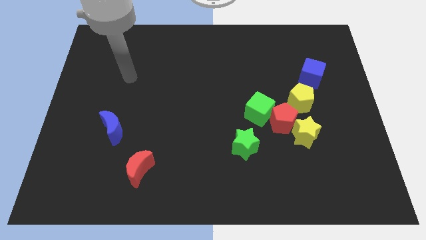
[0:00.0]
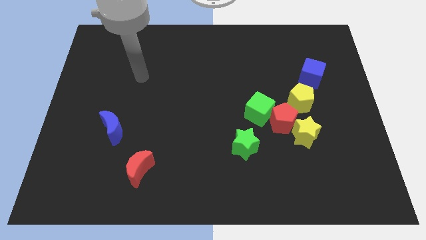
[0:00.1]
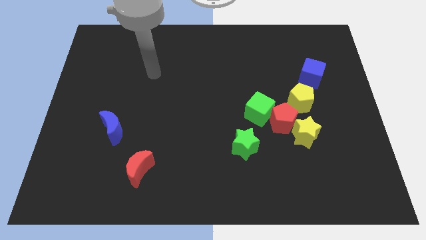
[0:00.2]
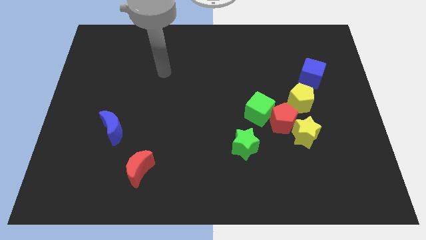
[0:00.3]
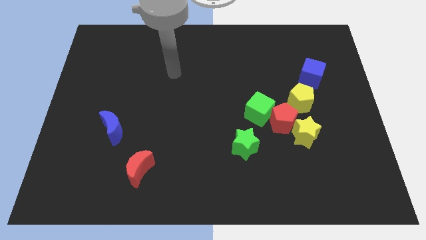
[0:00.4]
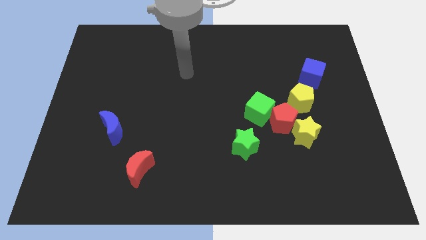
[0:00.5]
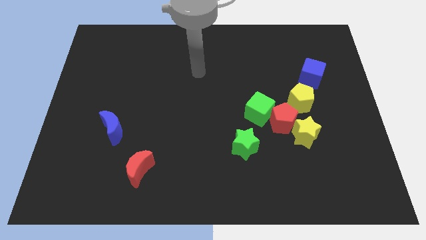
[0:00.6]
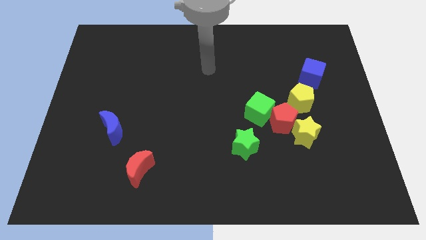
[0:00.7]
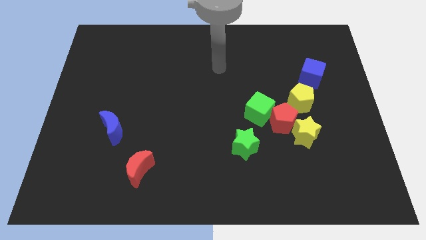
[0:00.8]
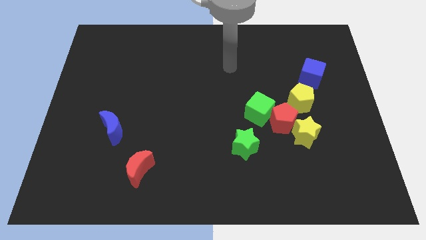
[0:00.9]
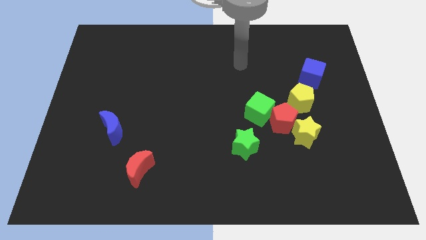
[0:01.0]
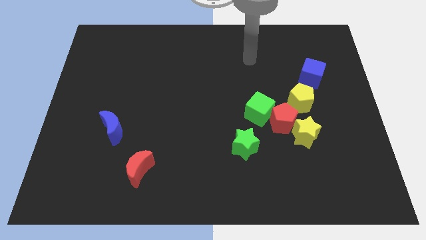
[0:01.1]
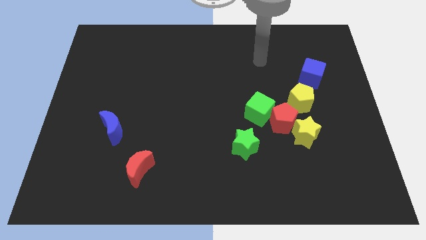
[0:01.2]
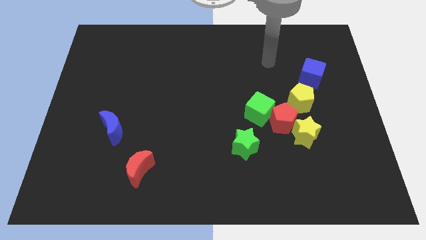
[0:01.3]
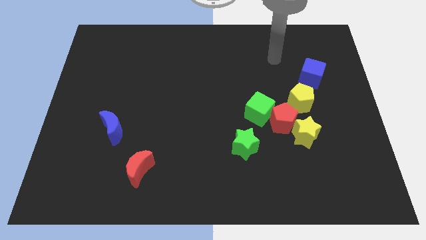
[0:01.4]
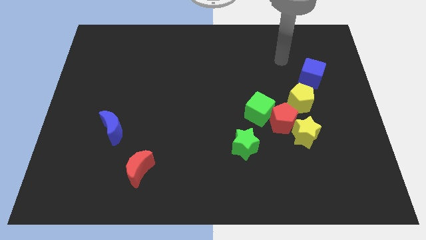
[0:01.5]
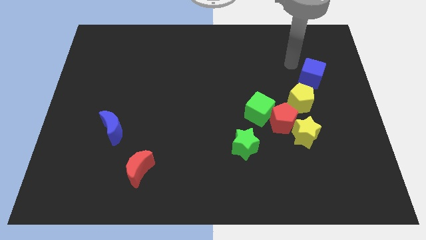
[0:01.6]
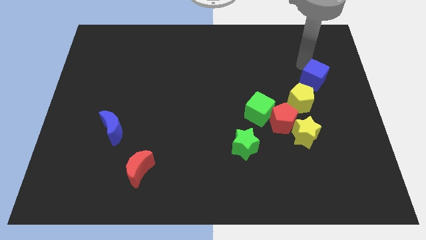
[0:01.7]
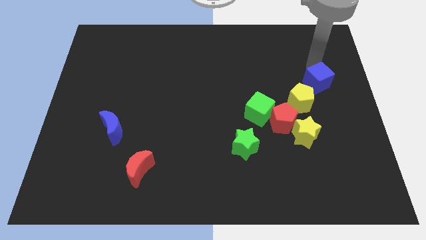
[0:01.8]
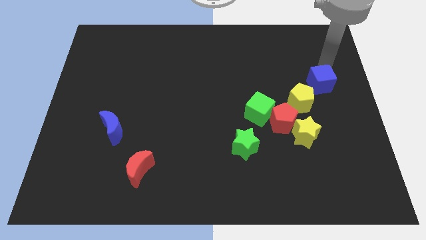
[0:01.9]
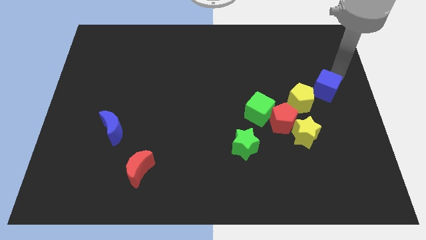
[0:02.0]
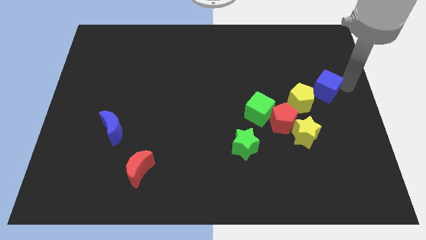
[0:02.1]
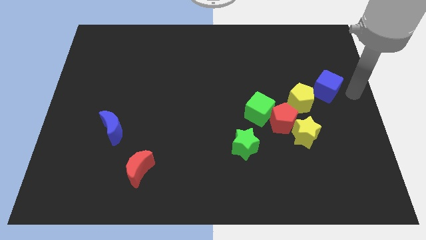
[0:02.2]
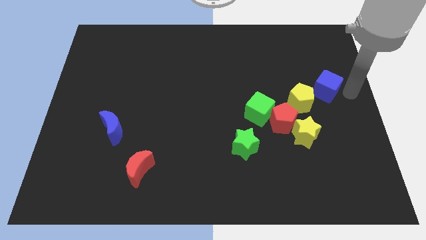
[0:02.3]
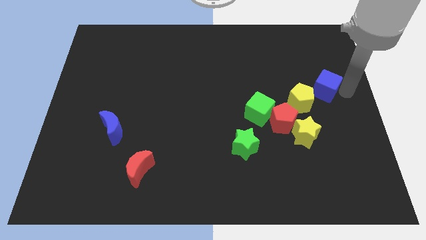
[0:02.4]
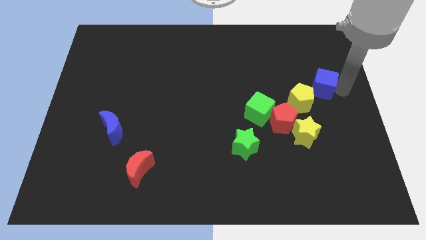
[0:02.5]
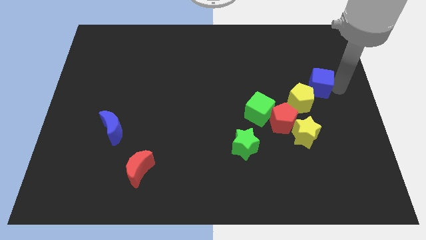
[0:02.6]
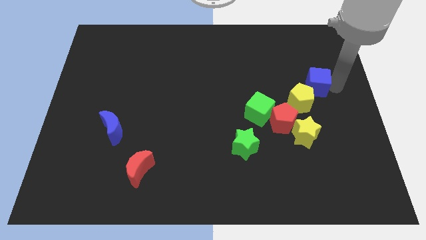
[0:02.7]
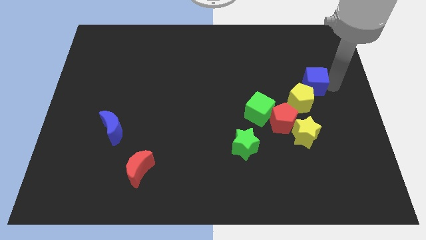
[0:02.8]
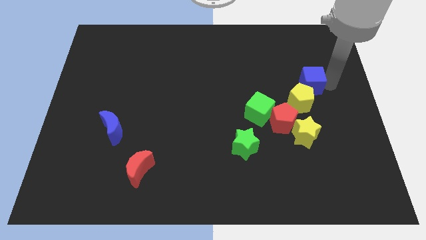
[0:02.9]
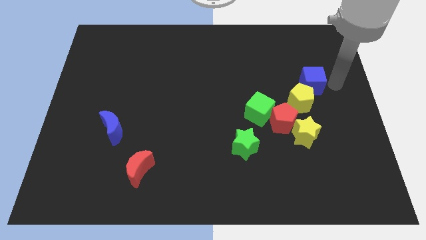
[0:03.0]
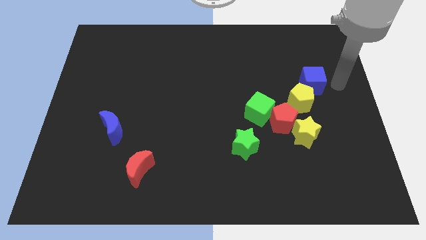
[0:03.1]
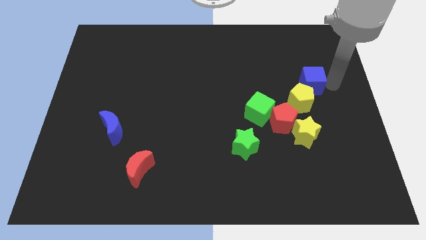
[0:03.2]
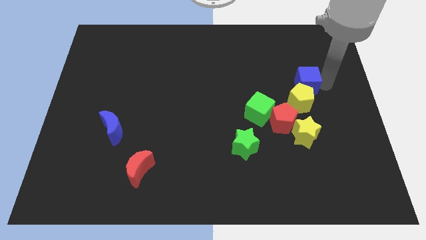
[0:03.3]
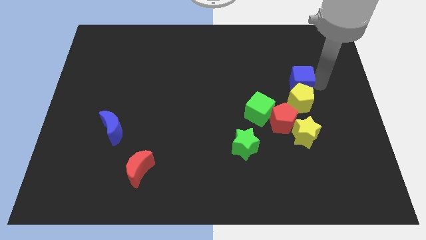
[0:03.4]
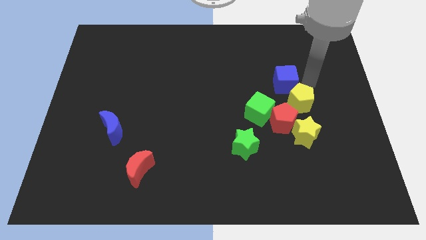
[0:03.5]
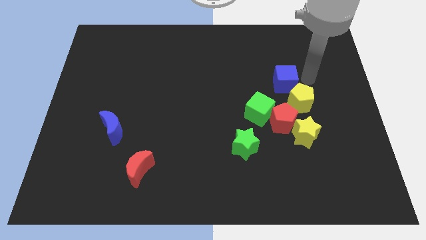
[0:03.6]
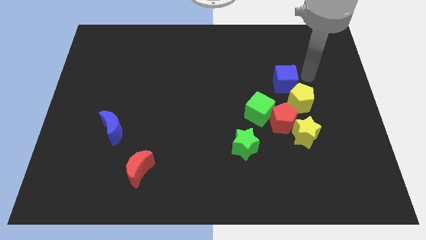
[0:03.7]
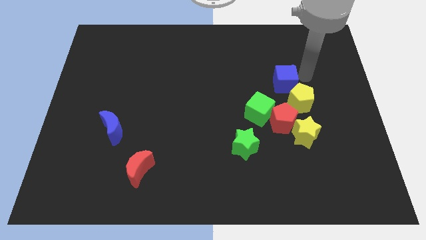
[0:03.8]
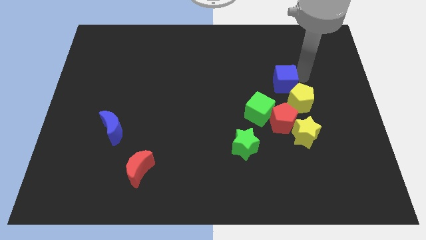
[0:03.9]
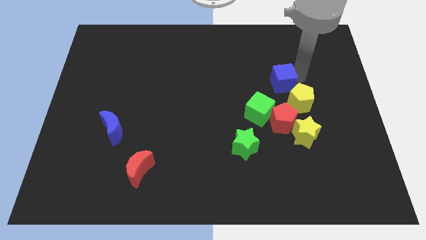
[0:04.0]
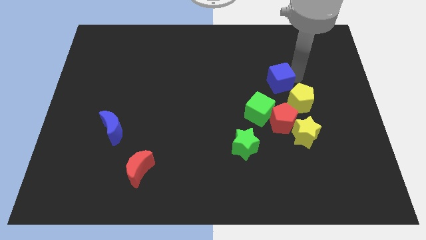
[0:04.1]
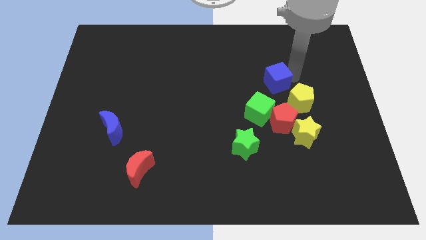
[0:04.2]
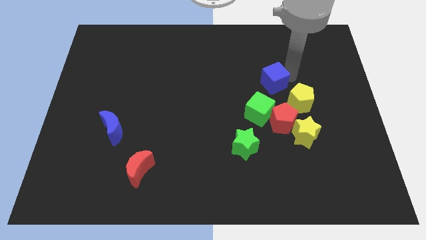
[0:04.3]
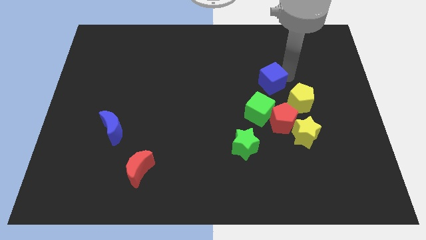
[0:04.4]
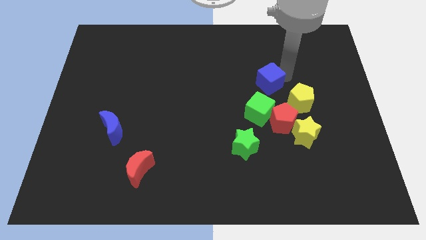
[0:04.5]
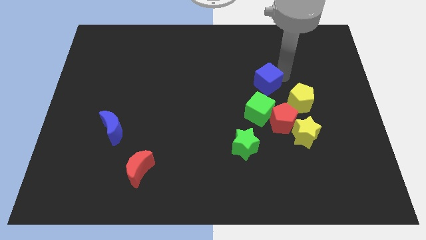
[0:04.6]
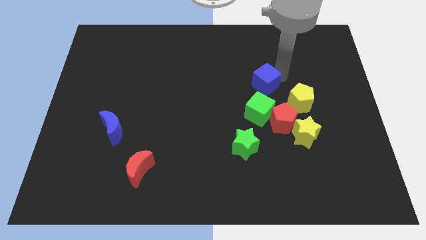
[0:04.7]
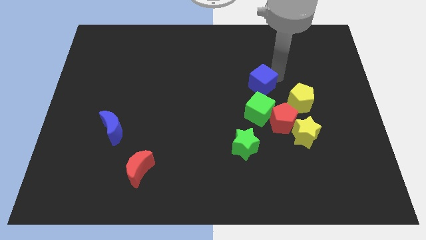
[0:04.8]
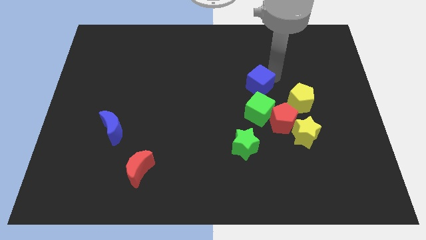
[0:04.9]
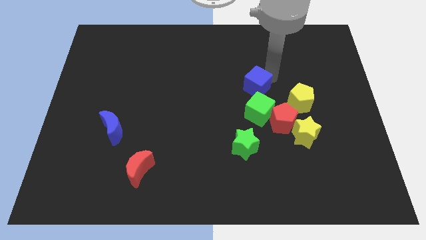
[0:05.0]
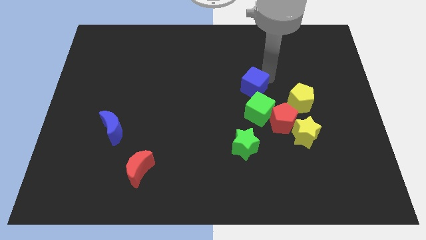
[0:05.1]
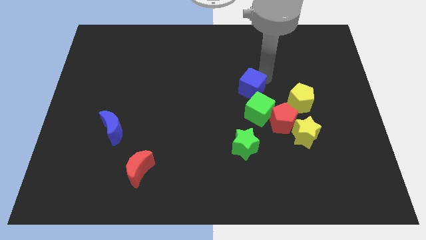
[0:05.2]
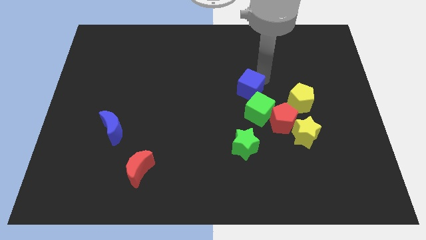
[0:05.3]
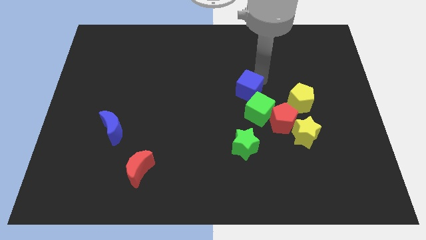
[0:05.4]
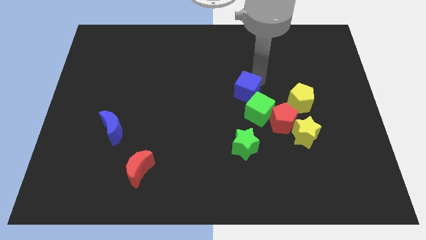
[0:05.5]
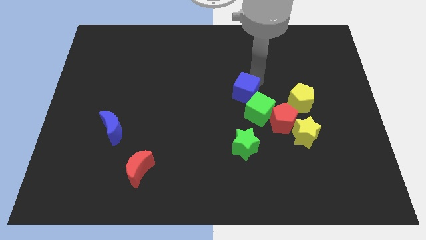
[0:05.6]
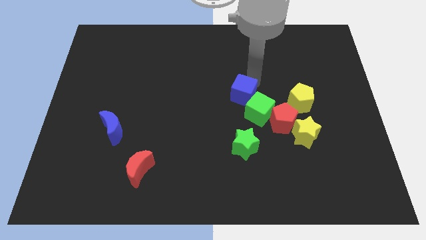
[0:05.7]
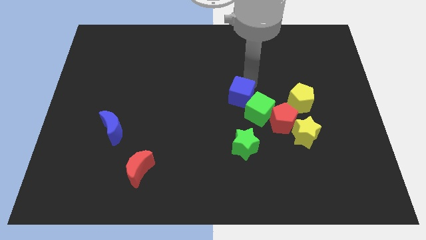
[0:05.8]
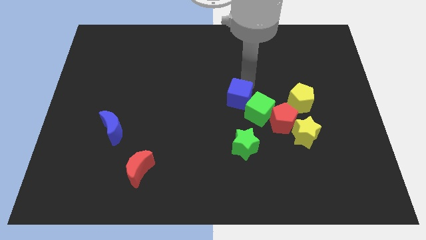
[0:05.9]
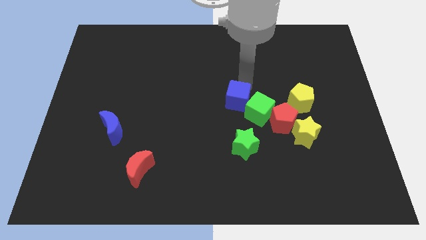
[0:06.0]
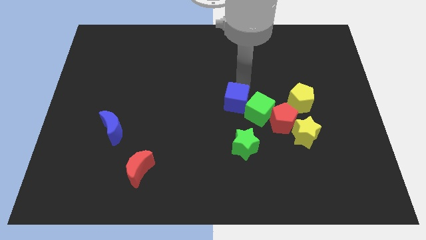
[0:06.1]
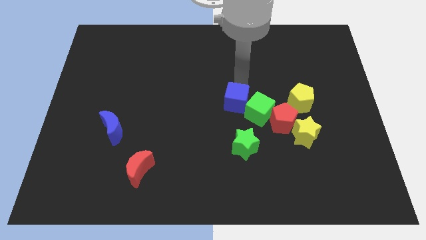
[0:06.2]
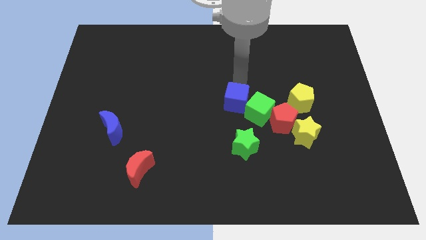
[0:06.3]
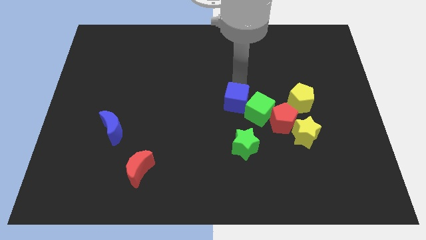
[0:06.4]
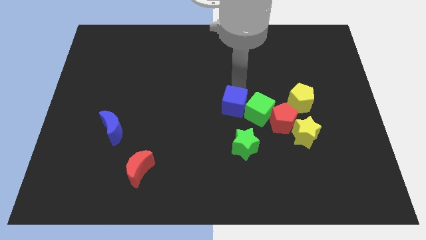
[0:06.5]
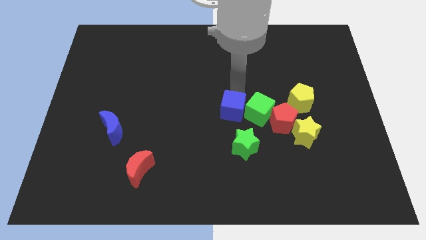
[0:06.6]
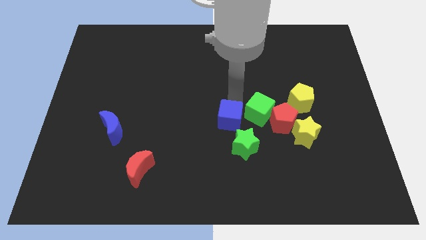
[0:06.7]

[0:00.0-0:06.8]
slide the blue cube downwards and left

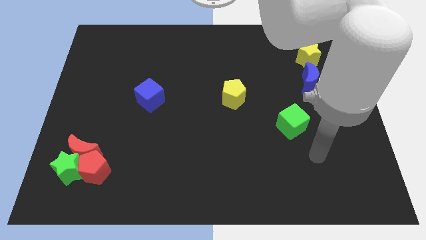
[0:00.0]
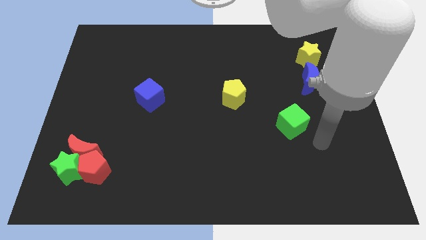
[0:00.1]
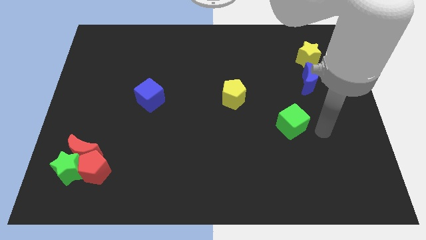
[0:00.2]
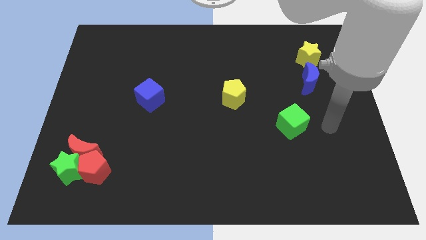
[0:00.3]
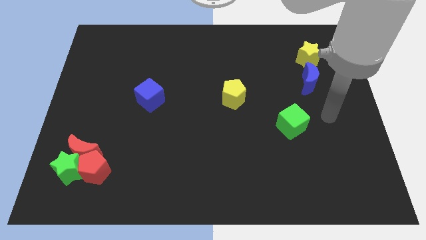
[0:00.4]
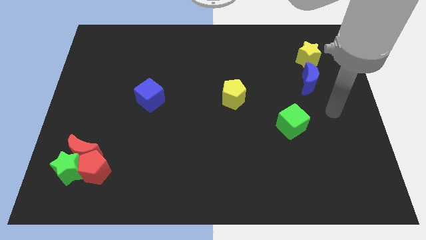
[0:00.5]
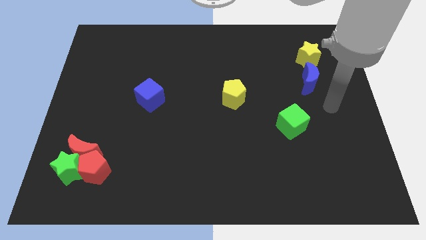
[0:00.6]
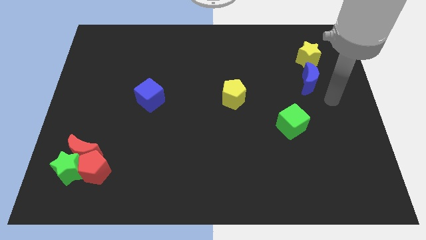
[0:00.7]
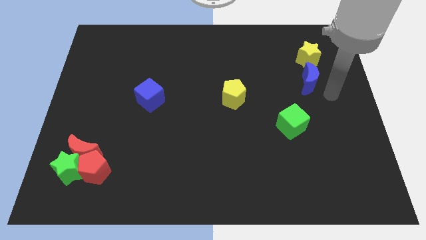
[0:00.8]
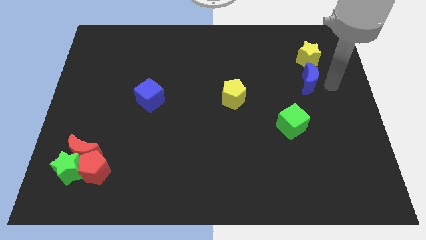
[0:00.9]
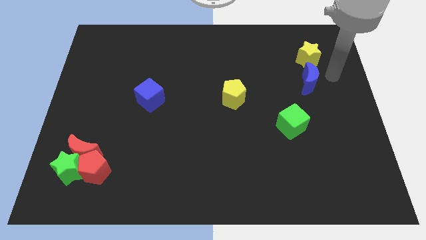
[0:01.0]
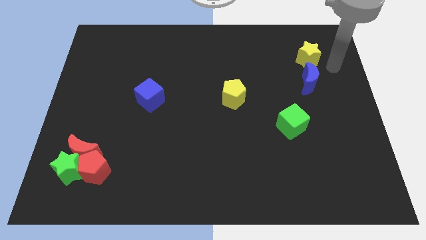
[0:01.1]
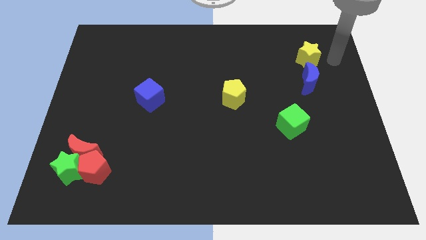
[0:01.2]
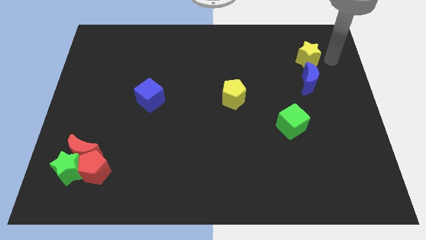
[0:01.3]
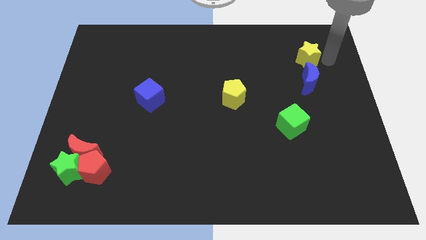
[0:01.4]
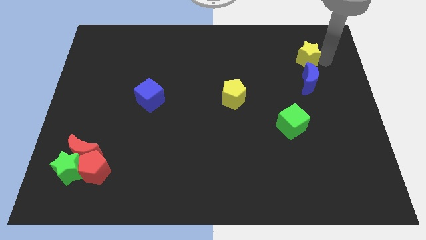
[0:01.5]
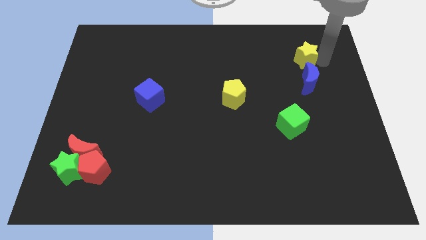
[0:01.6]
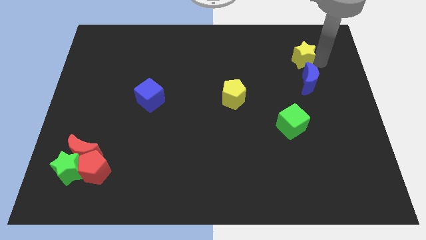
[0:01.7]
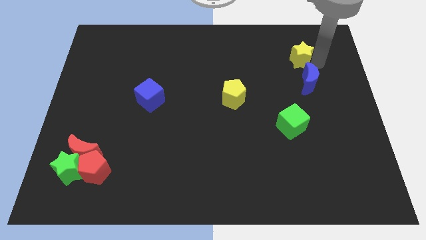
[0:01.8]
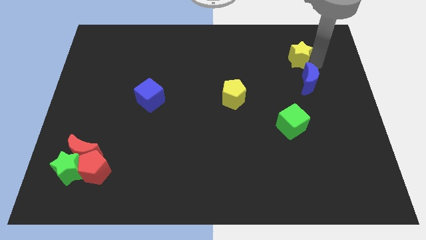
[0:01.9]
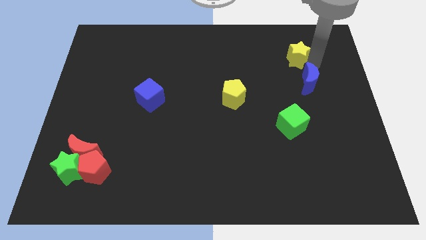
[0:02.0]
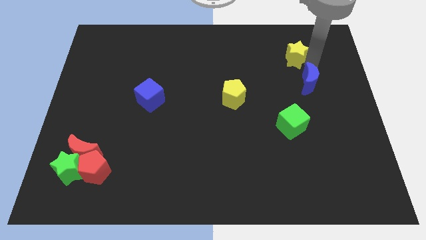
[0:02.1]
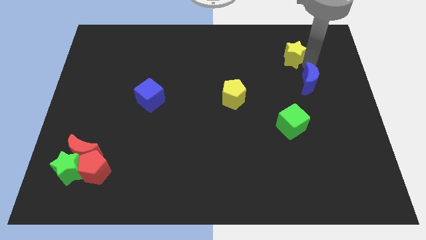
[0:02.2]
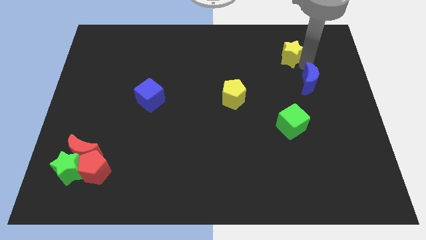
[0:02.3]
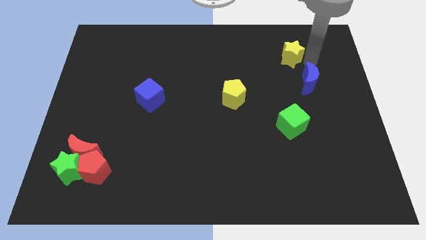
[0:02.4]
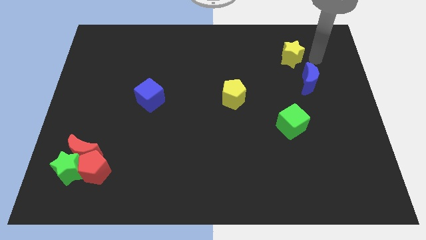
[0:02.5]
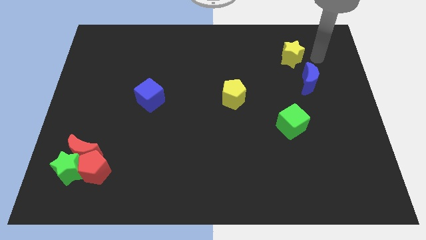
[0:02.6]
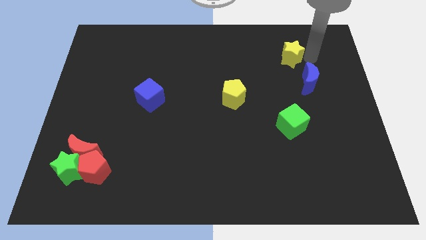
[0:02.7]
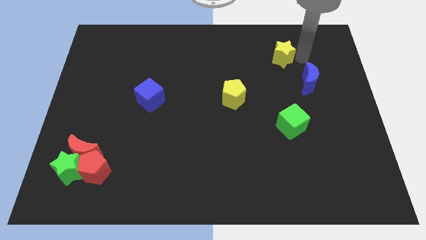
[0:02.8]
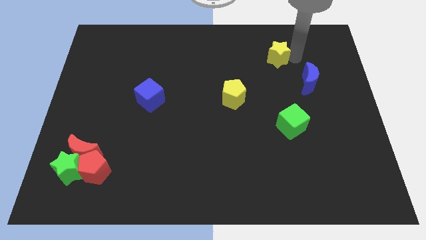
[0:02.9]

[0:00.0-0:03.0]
slightly slide the yellow star to the left
